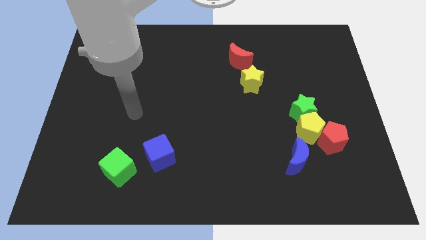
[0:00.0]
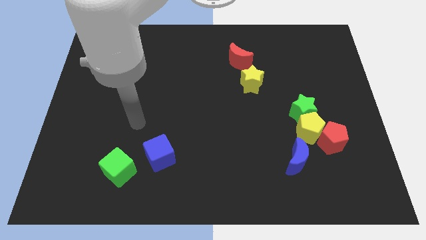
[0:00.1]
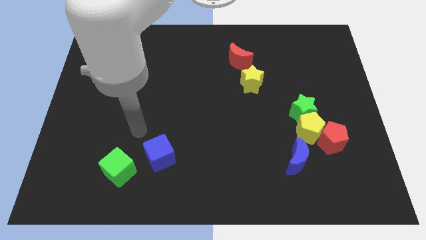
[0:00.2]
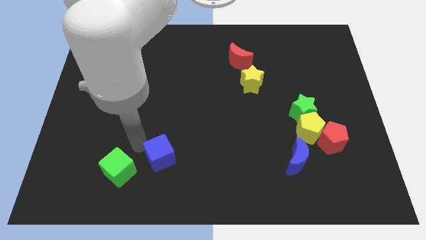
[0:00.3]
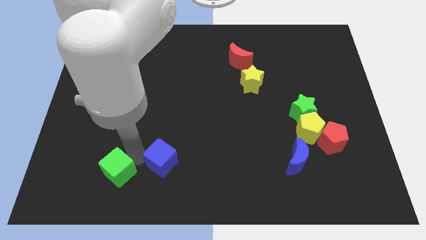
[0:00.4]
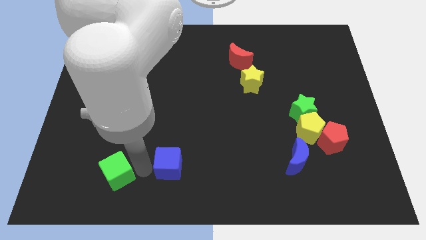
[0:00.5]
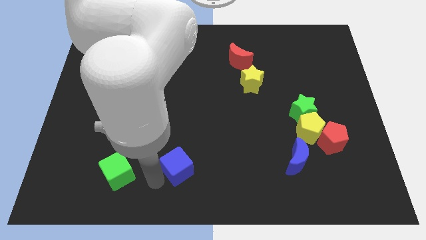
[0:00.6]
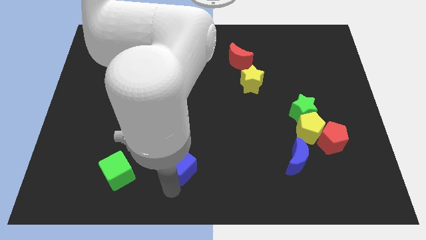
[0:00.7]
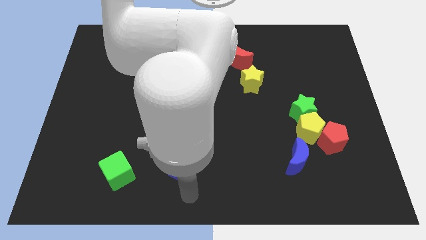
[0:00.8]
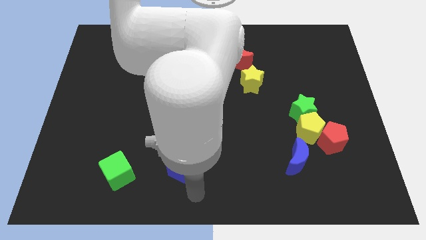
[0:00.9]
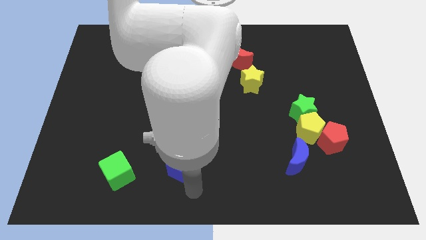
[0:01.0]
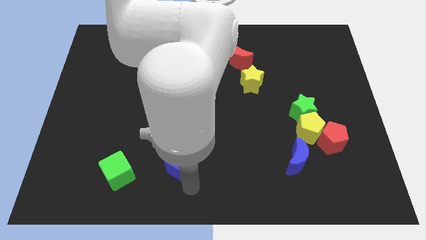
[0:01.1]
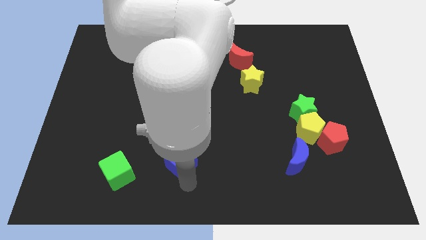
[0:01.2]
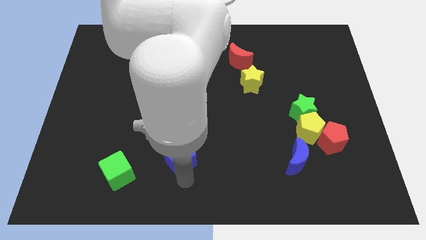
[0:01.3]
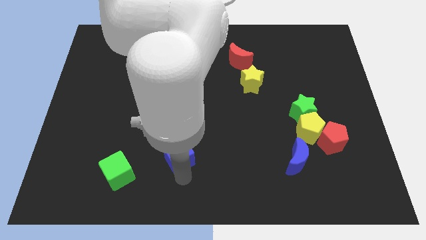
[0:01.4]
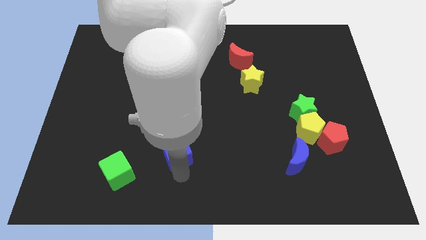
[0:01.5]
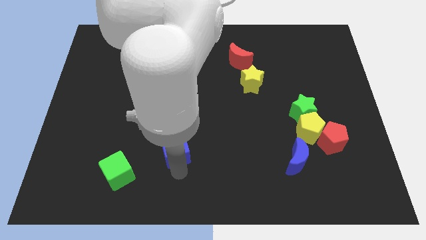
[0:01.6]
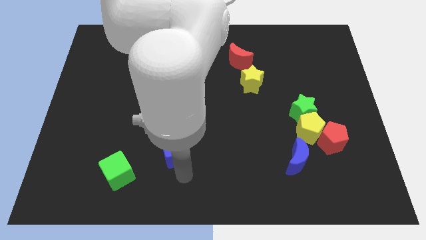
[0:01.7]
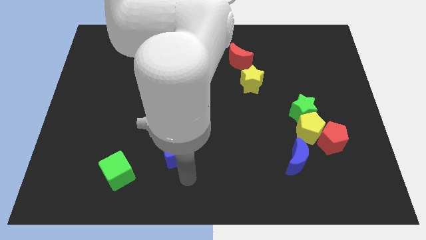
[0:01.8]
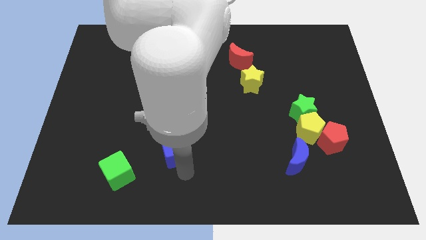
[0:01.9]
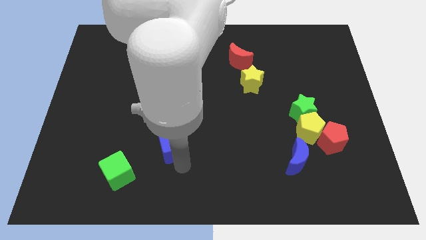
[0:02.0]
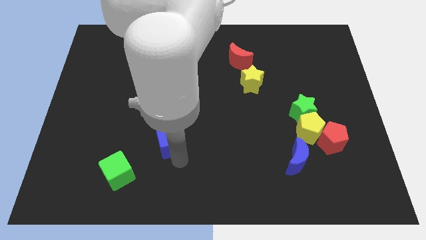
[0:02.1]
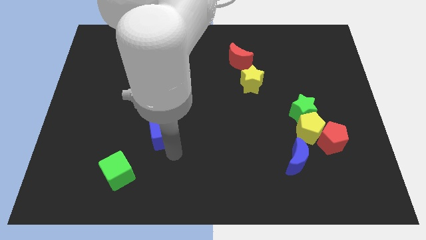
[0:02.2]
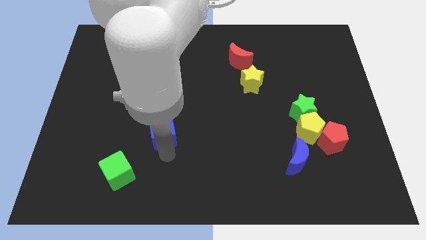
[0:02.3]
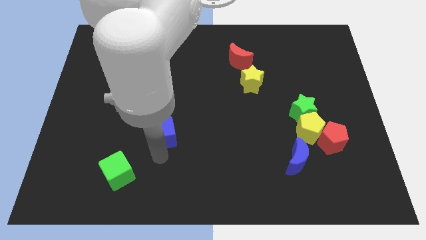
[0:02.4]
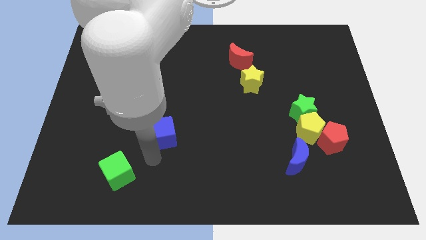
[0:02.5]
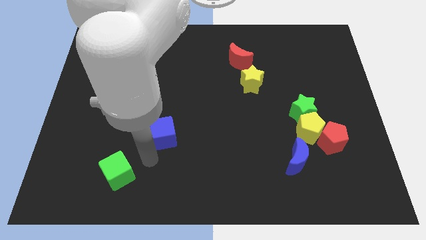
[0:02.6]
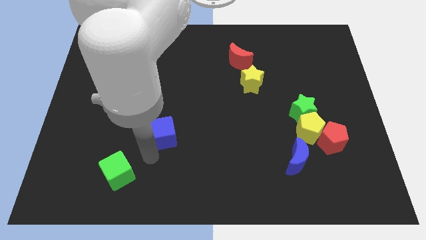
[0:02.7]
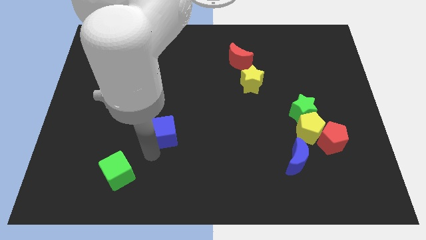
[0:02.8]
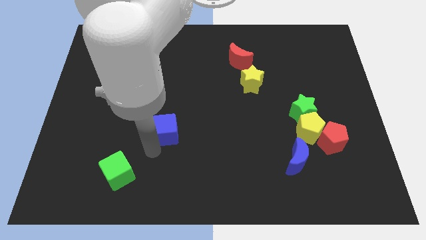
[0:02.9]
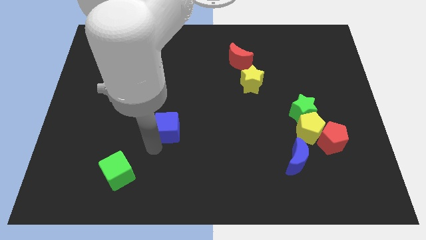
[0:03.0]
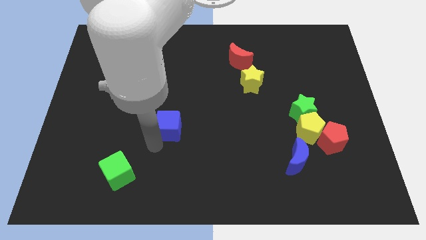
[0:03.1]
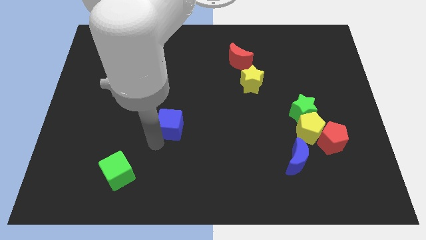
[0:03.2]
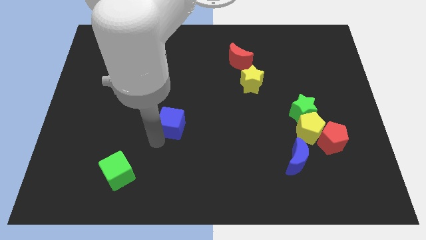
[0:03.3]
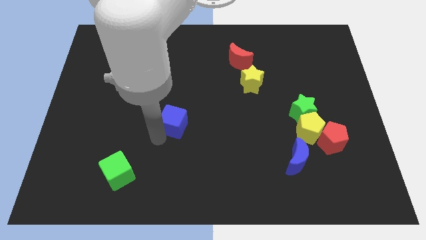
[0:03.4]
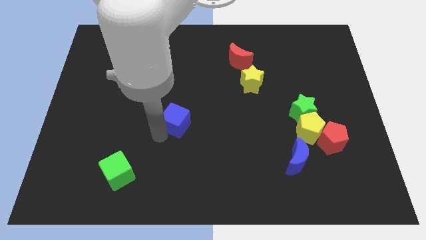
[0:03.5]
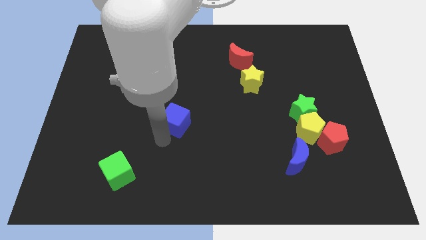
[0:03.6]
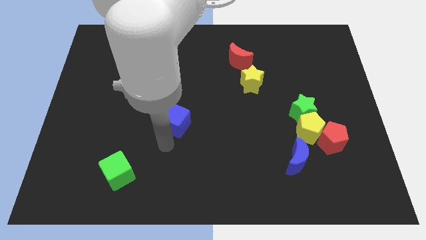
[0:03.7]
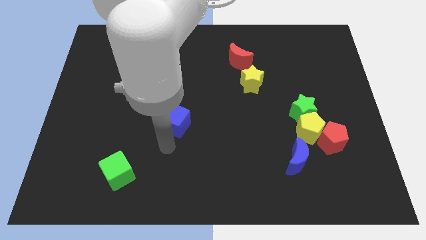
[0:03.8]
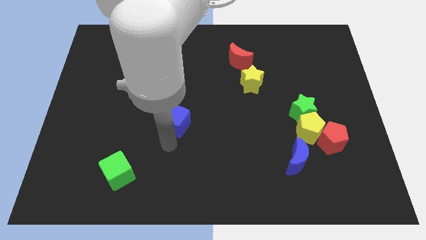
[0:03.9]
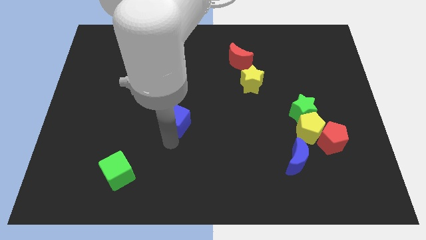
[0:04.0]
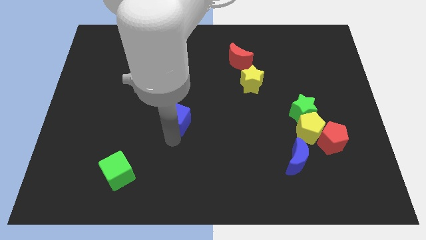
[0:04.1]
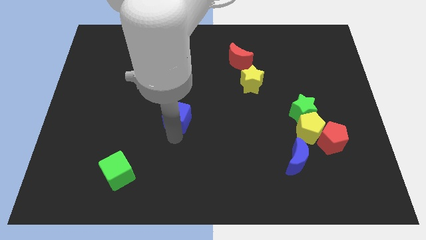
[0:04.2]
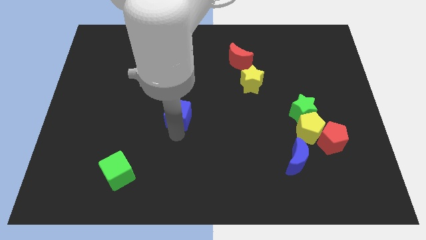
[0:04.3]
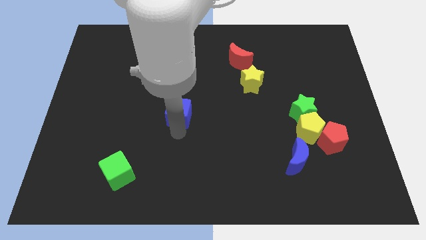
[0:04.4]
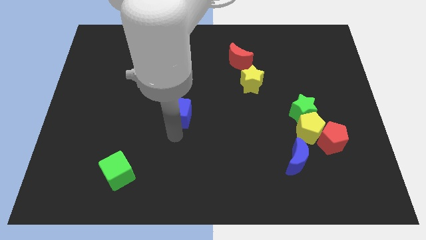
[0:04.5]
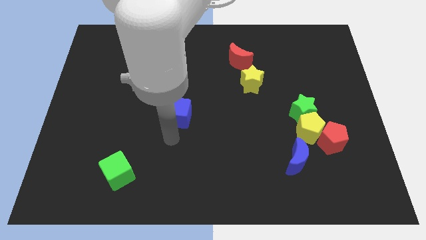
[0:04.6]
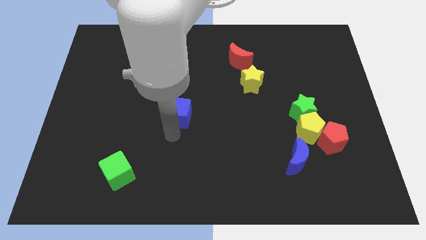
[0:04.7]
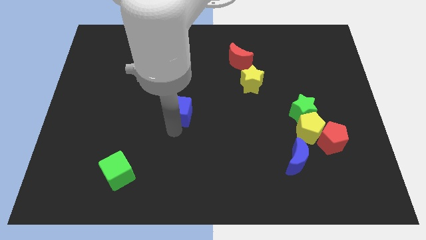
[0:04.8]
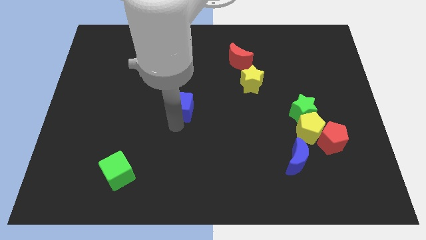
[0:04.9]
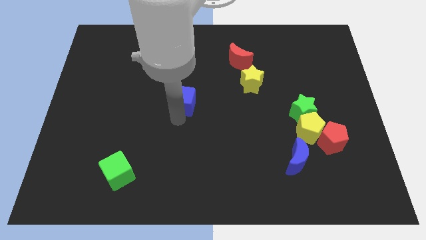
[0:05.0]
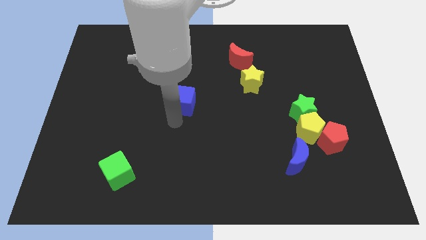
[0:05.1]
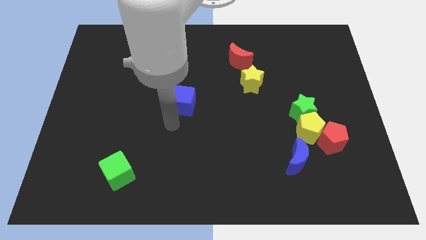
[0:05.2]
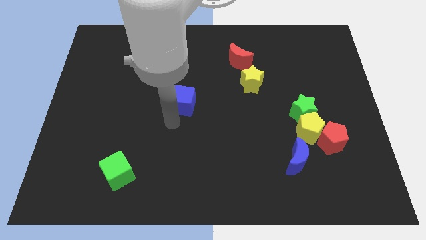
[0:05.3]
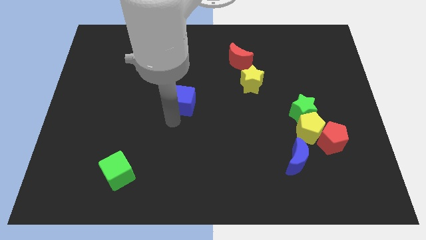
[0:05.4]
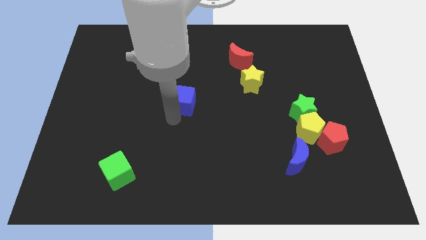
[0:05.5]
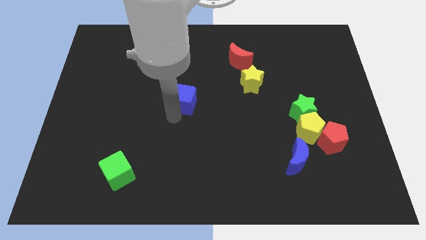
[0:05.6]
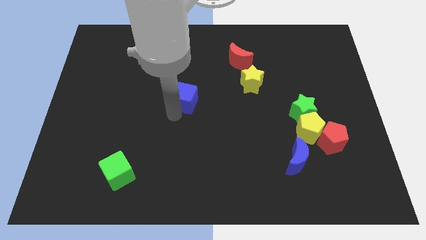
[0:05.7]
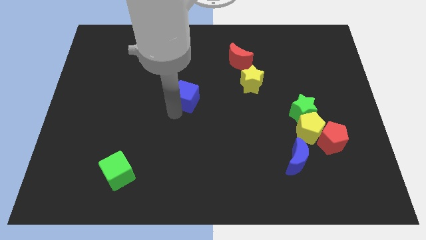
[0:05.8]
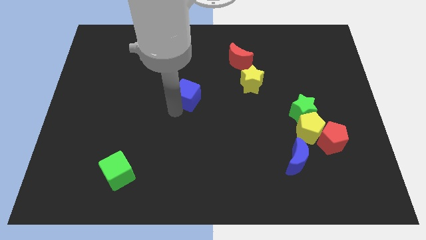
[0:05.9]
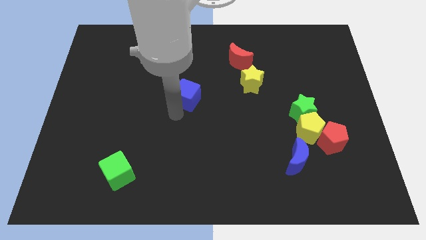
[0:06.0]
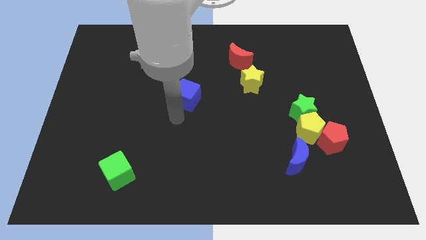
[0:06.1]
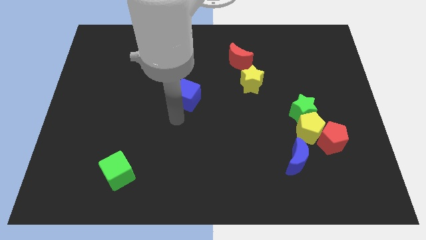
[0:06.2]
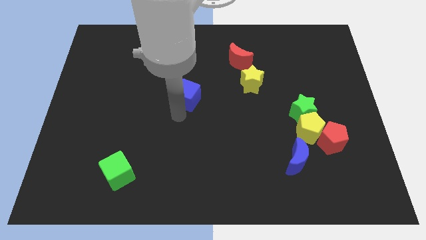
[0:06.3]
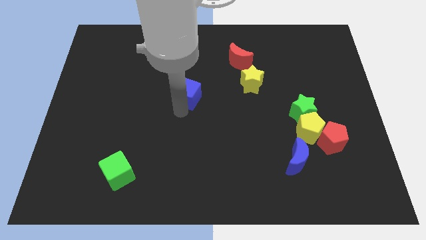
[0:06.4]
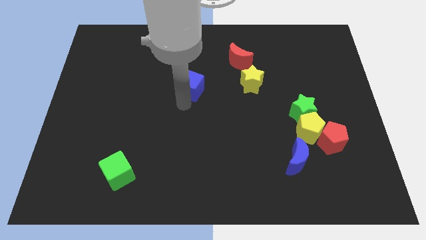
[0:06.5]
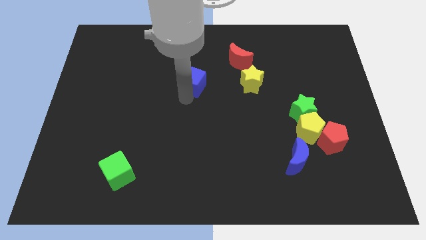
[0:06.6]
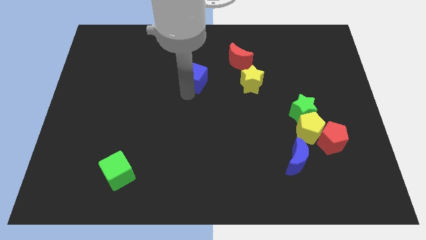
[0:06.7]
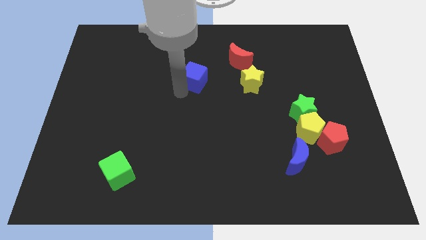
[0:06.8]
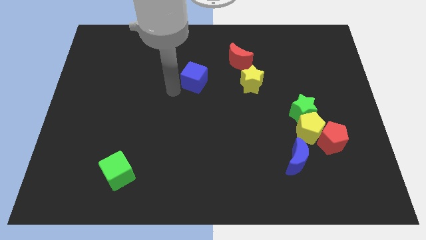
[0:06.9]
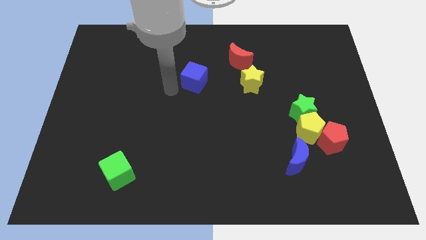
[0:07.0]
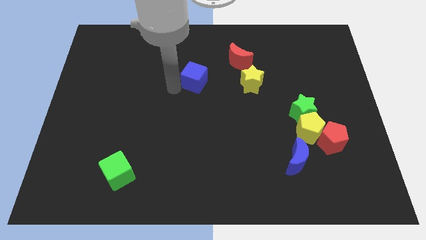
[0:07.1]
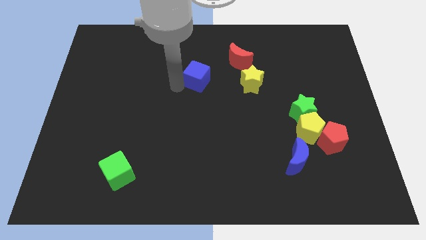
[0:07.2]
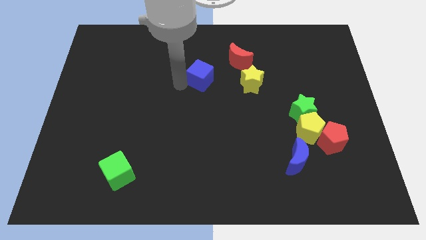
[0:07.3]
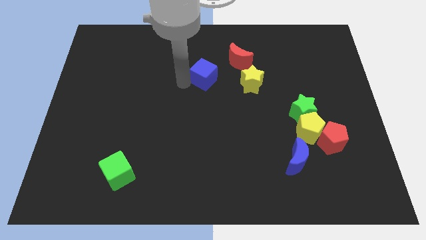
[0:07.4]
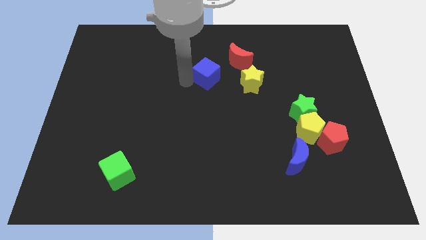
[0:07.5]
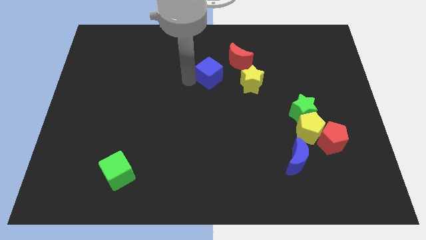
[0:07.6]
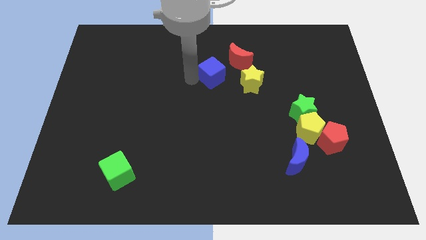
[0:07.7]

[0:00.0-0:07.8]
slide the blue cube diagonally up and to the left of the yellow star
